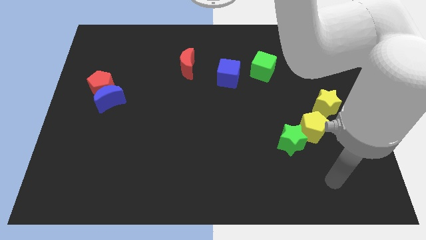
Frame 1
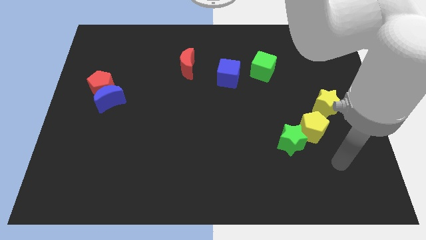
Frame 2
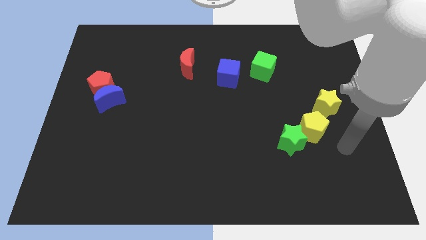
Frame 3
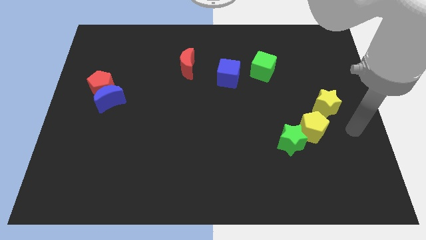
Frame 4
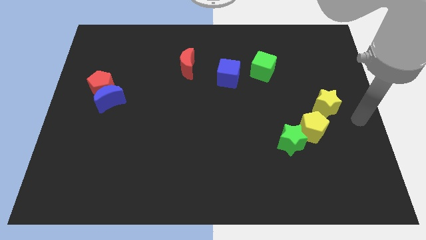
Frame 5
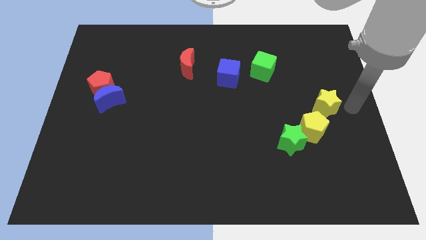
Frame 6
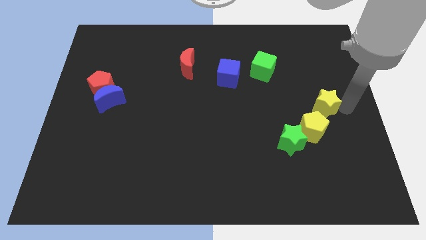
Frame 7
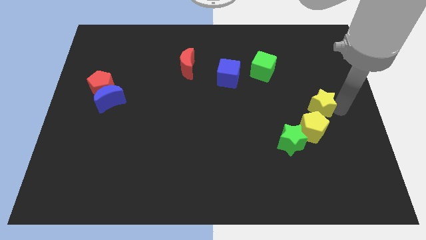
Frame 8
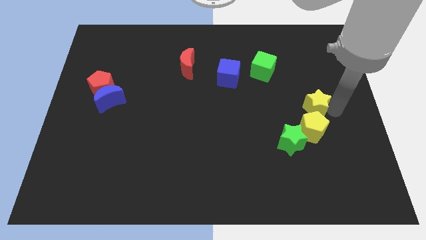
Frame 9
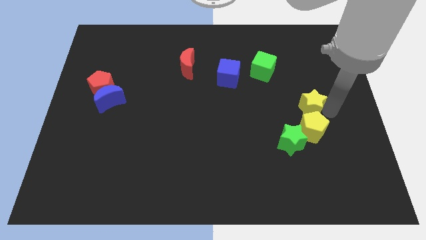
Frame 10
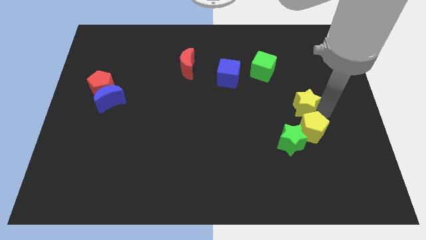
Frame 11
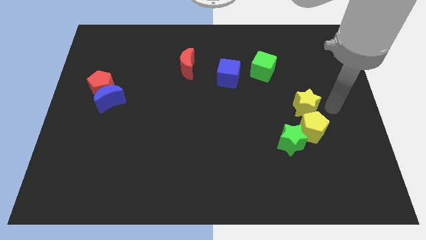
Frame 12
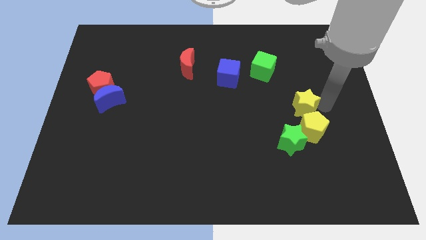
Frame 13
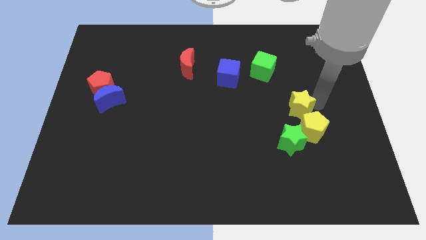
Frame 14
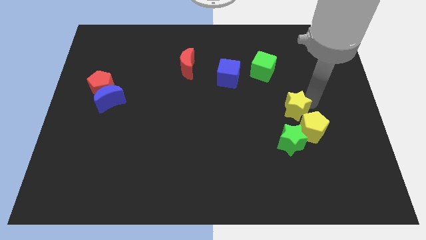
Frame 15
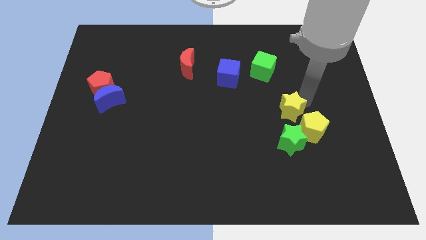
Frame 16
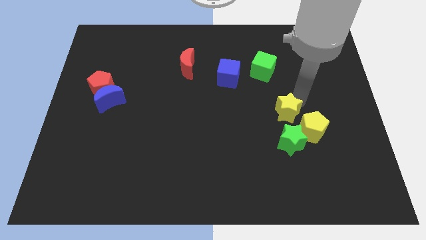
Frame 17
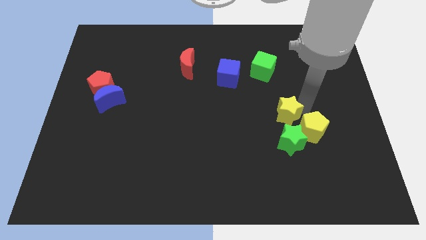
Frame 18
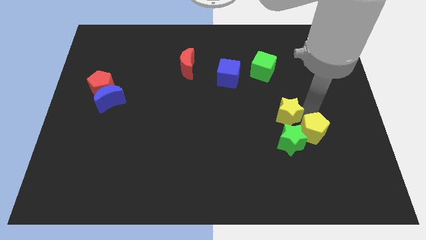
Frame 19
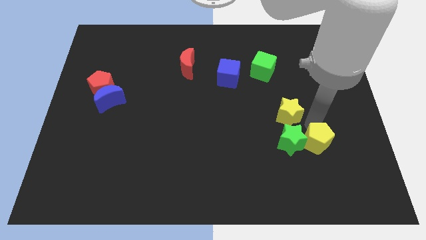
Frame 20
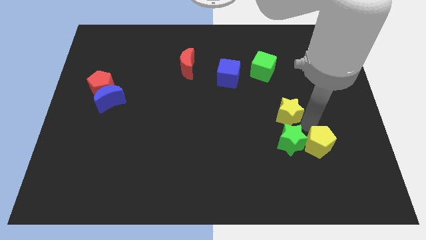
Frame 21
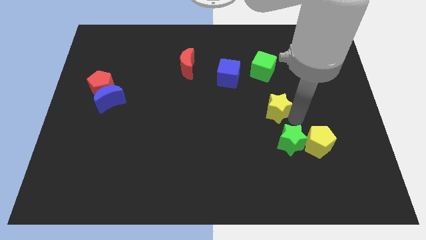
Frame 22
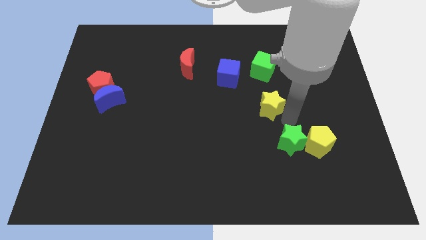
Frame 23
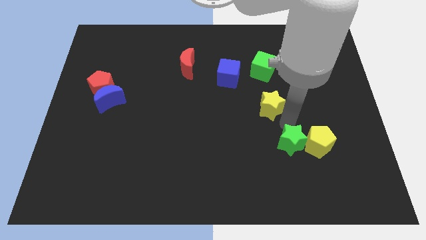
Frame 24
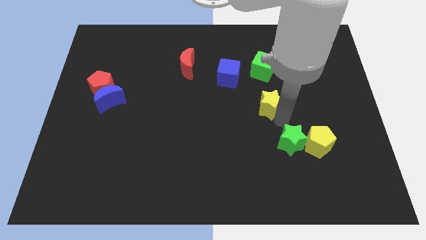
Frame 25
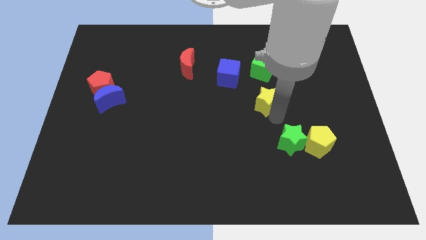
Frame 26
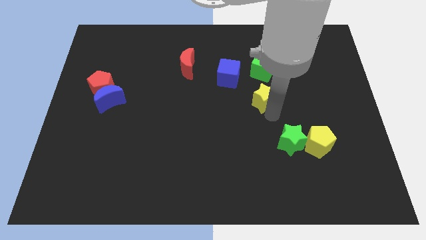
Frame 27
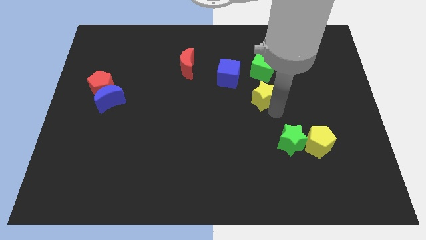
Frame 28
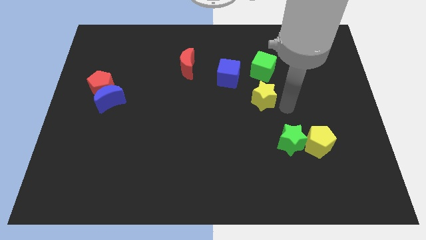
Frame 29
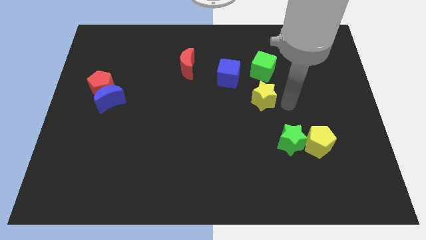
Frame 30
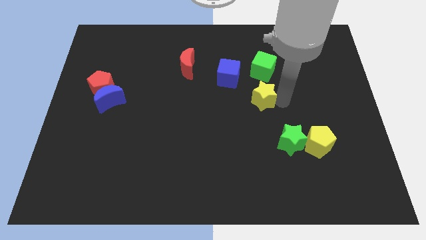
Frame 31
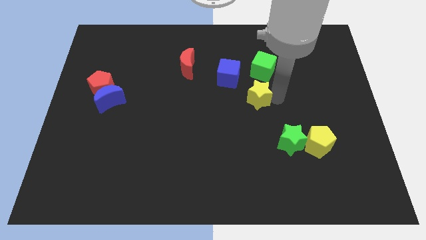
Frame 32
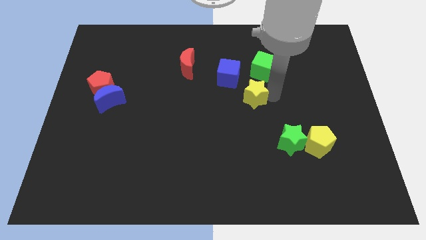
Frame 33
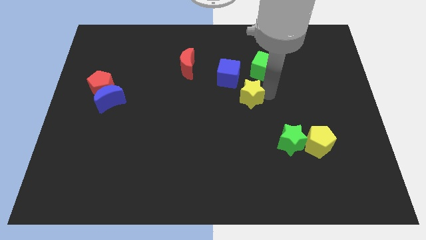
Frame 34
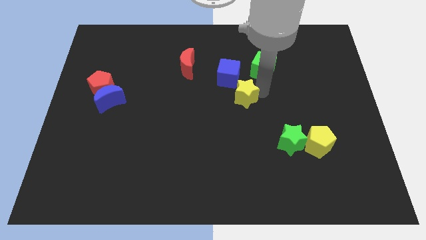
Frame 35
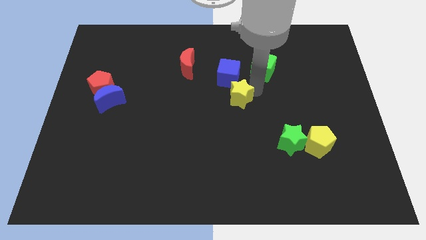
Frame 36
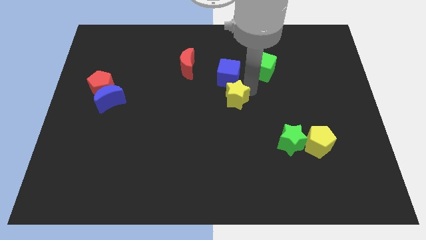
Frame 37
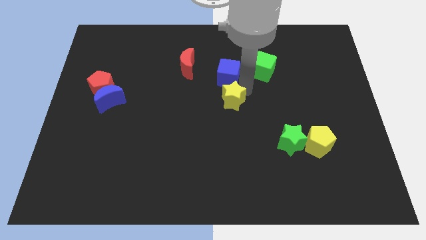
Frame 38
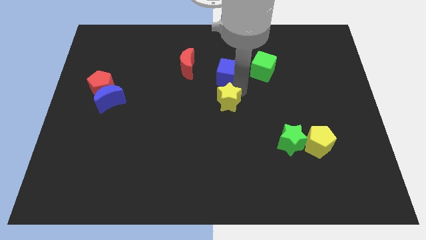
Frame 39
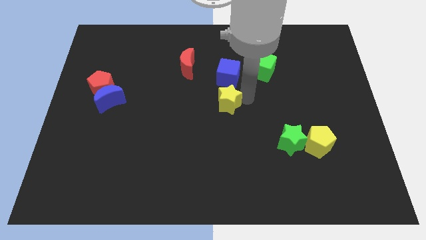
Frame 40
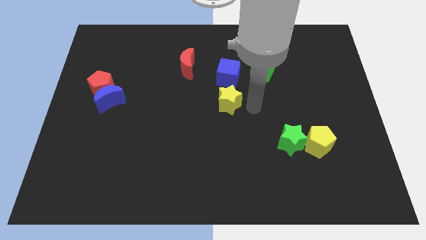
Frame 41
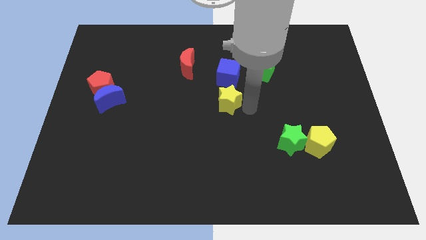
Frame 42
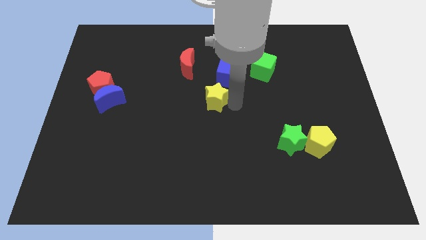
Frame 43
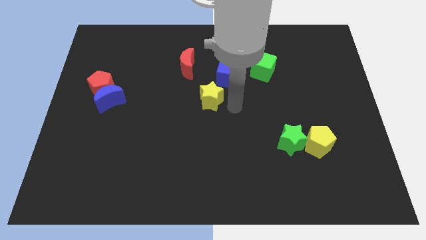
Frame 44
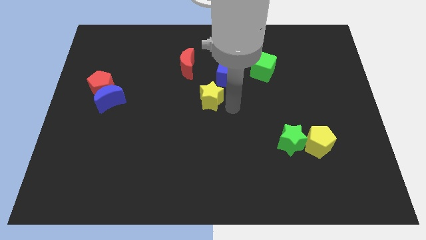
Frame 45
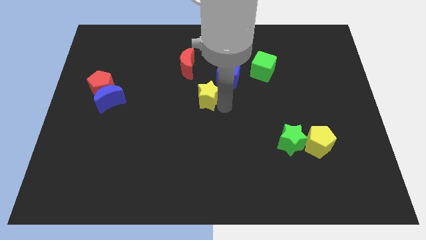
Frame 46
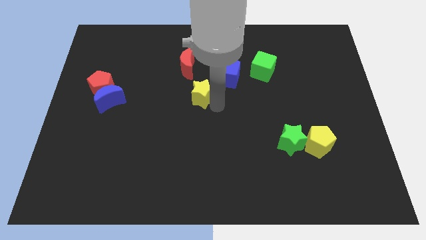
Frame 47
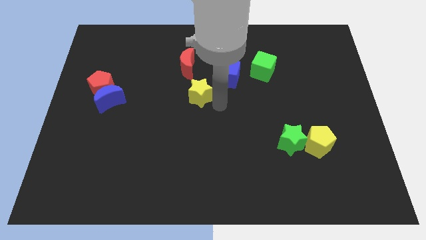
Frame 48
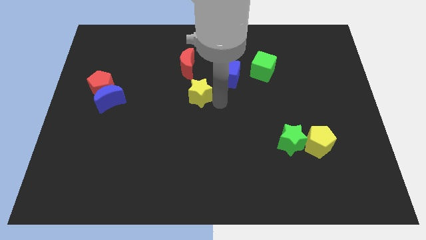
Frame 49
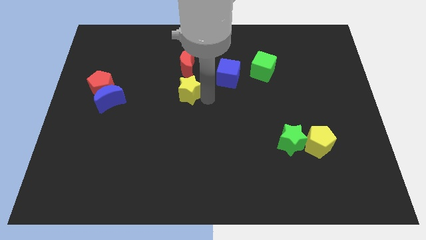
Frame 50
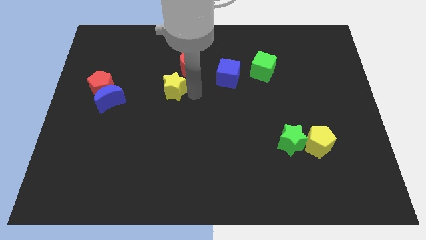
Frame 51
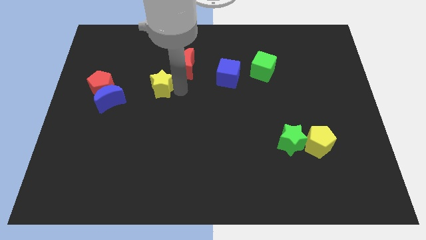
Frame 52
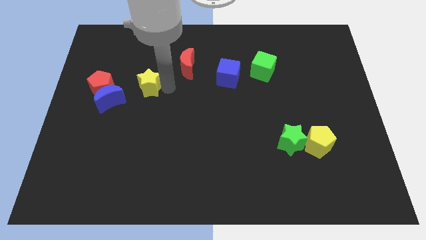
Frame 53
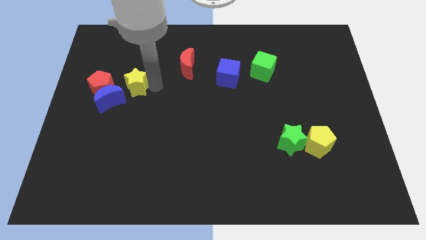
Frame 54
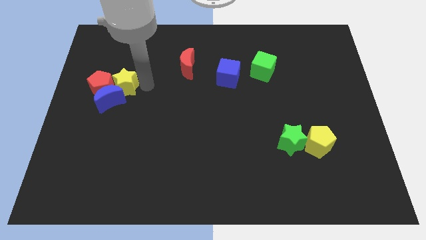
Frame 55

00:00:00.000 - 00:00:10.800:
move the yellow star to the red pentagon

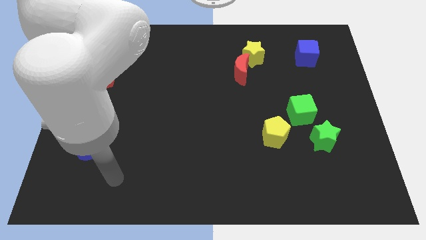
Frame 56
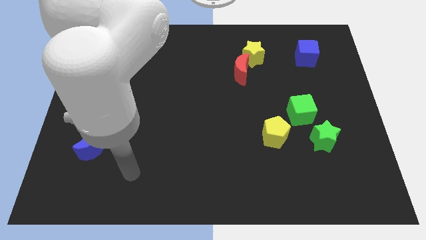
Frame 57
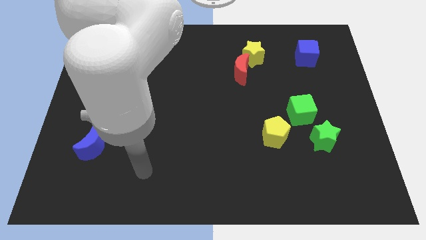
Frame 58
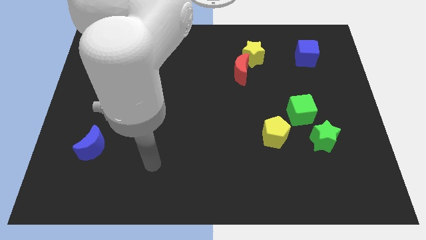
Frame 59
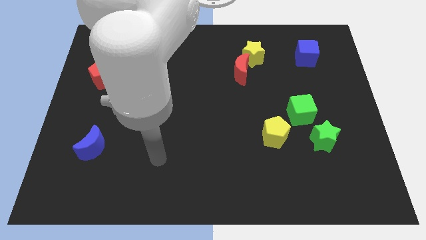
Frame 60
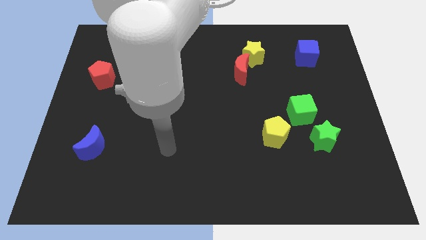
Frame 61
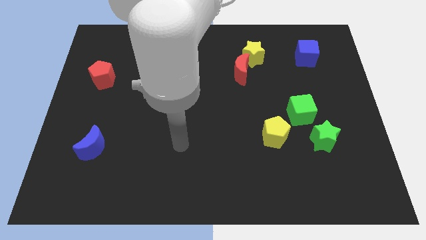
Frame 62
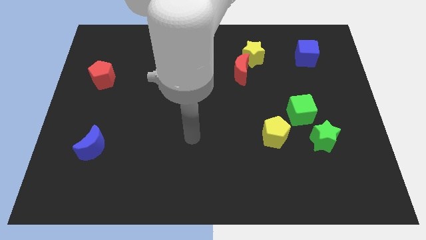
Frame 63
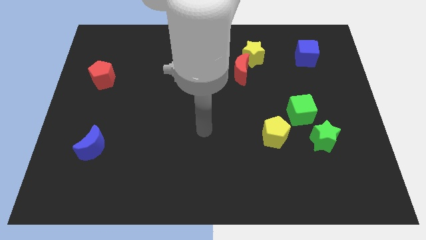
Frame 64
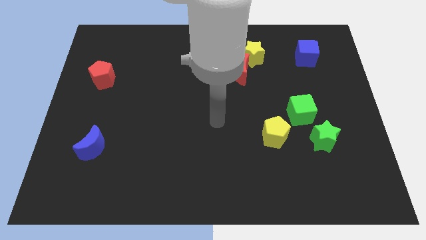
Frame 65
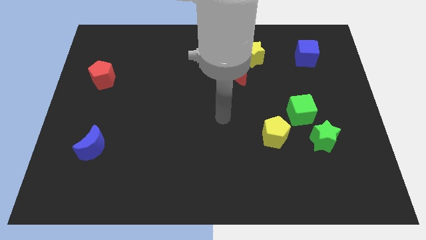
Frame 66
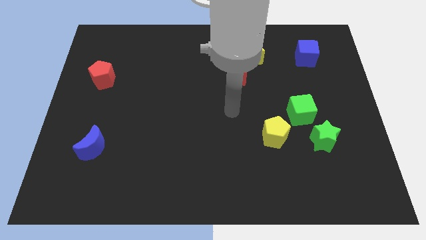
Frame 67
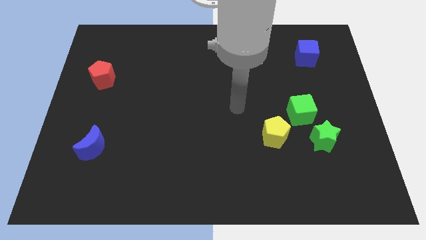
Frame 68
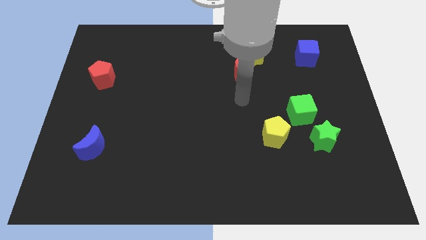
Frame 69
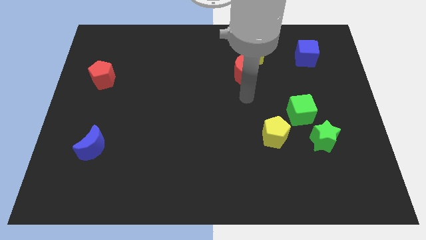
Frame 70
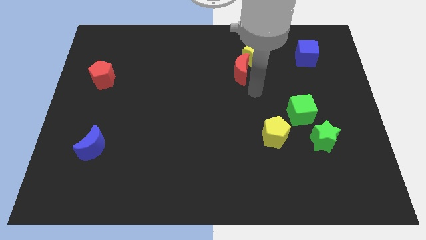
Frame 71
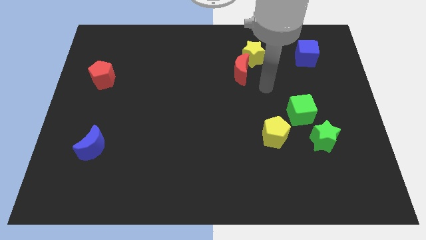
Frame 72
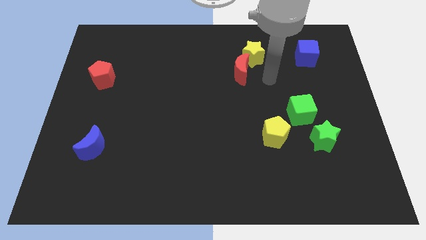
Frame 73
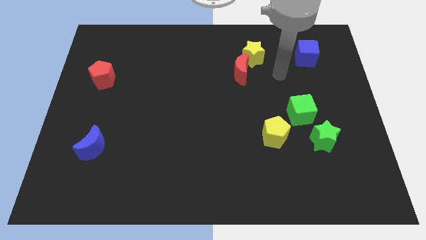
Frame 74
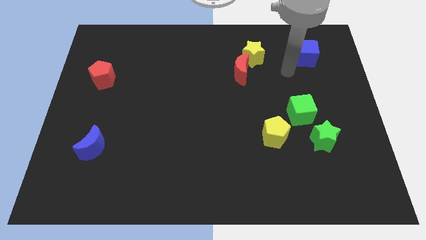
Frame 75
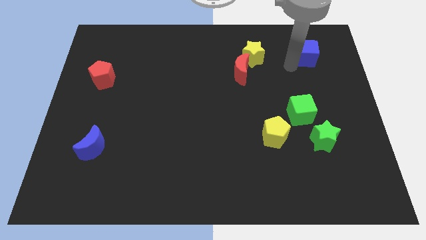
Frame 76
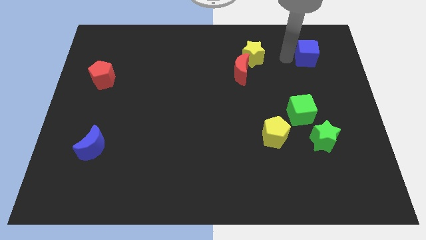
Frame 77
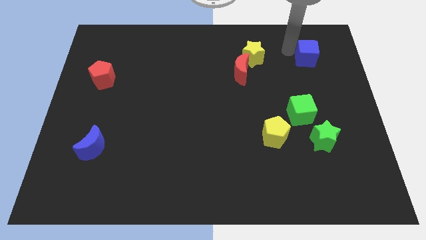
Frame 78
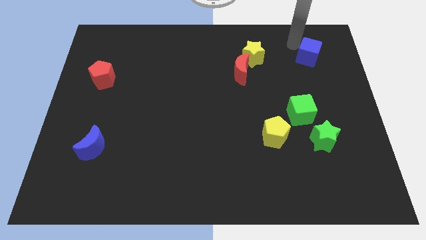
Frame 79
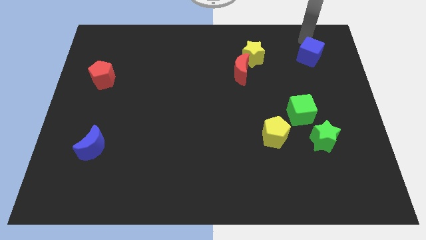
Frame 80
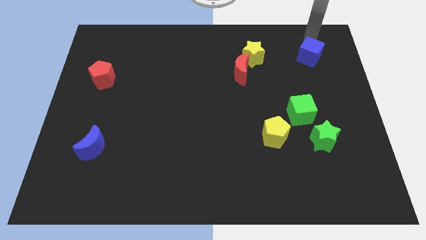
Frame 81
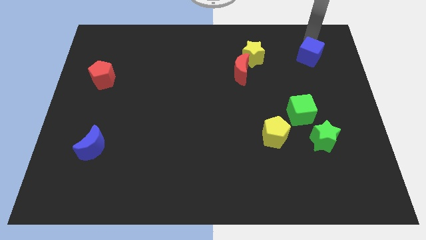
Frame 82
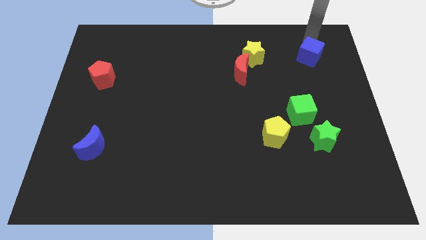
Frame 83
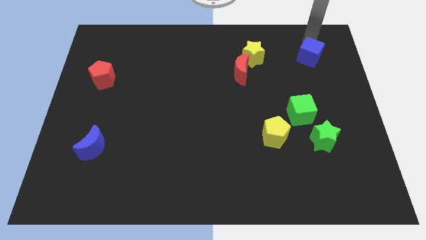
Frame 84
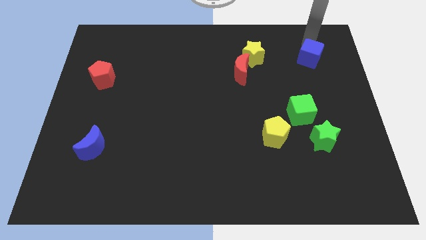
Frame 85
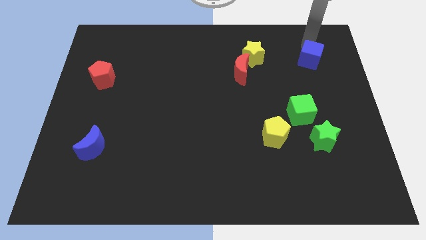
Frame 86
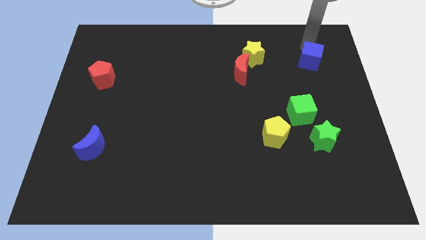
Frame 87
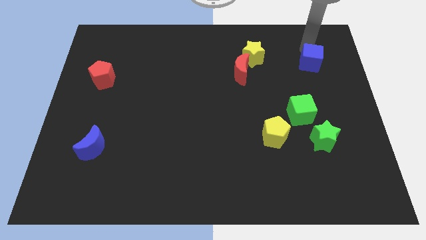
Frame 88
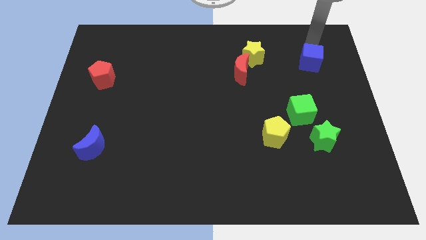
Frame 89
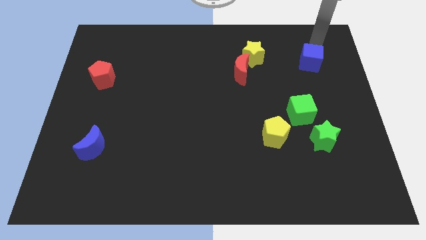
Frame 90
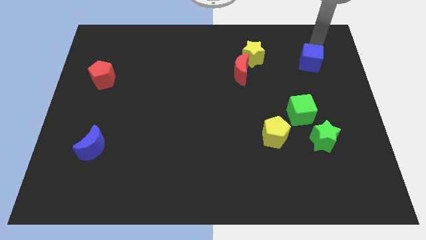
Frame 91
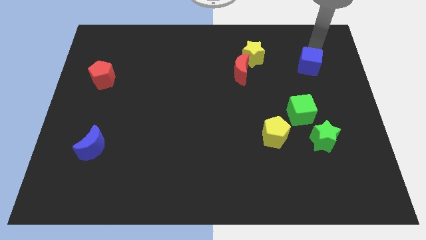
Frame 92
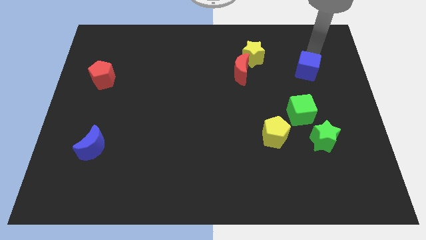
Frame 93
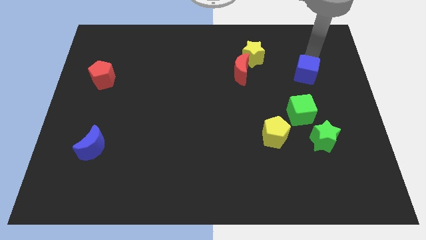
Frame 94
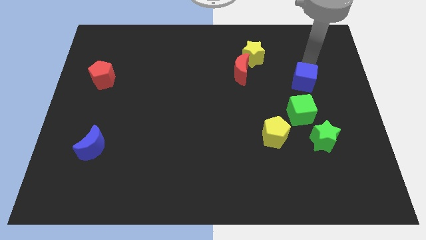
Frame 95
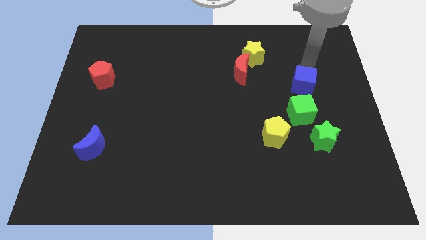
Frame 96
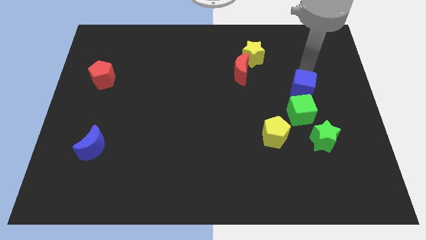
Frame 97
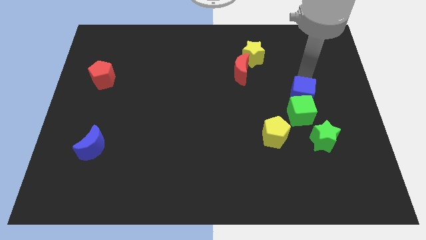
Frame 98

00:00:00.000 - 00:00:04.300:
move the blue cube towards the green cube
